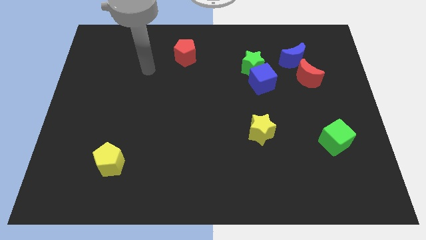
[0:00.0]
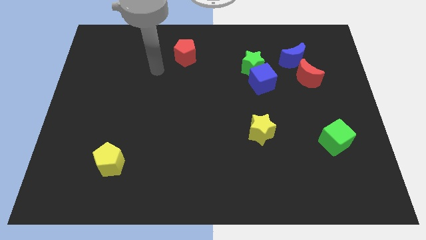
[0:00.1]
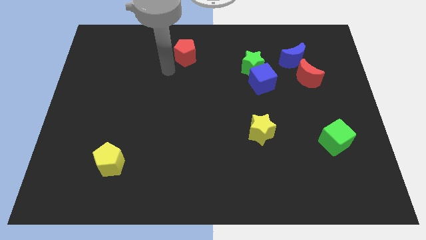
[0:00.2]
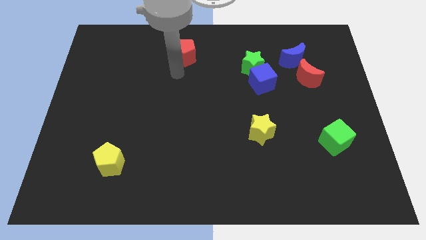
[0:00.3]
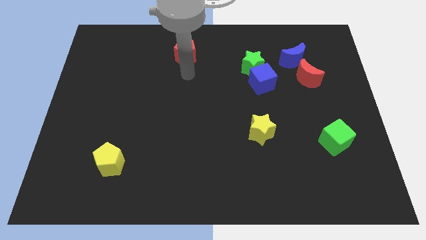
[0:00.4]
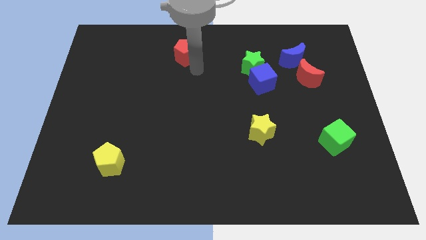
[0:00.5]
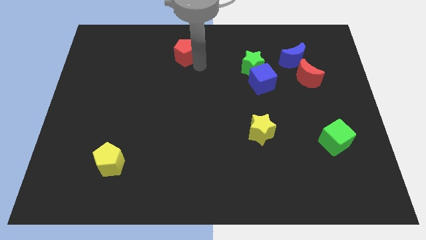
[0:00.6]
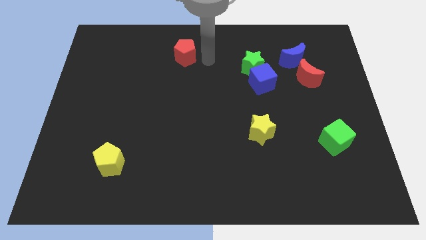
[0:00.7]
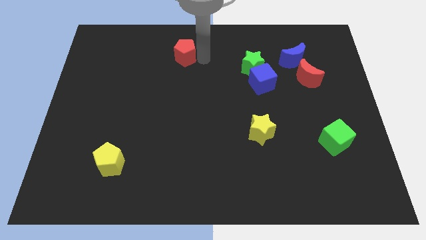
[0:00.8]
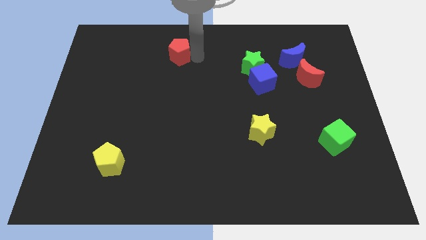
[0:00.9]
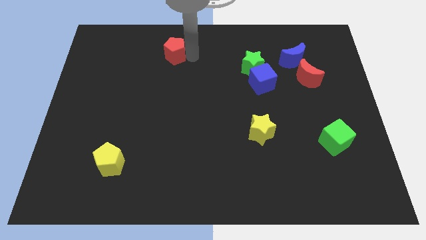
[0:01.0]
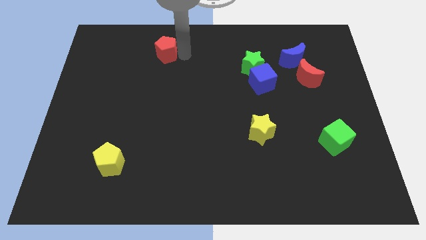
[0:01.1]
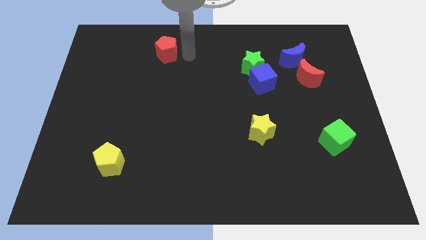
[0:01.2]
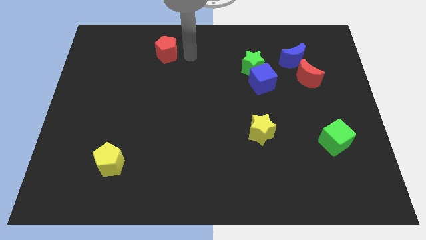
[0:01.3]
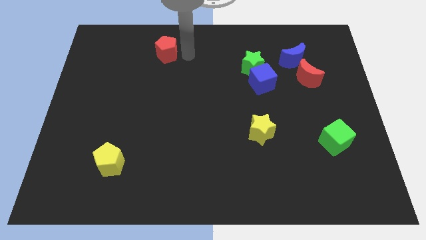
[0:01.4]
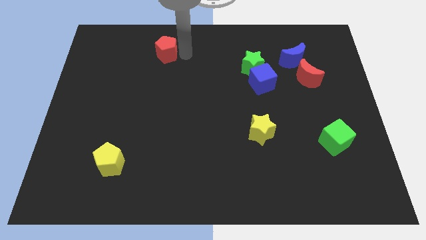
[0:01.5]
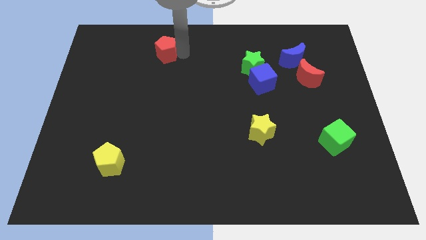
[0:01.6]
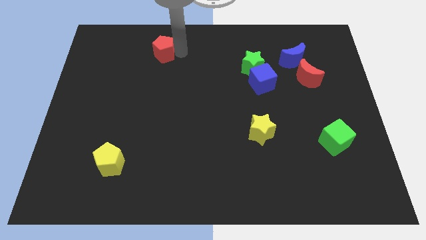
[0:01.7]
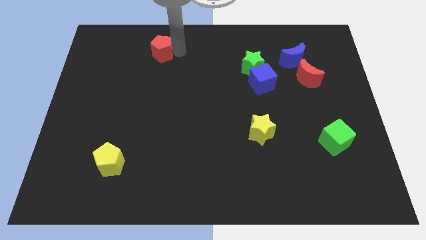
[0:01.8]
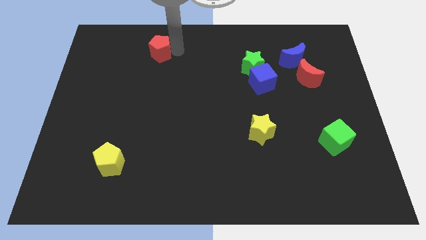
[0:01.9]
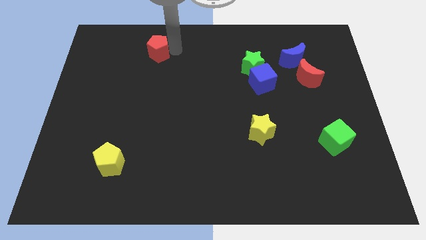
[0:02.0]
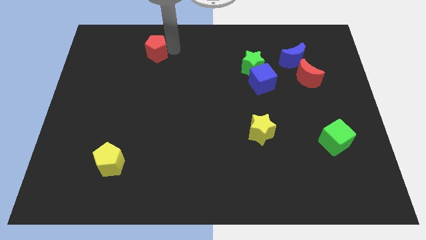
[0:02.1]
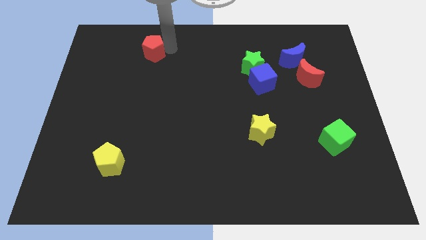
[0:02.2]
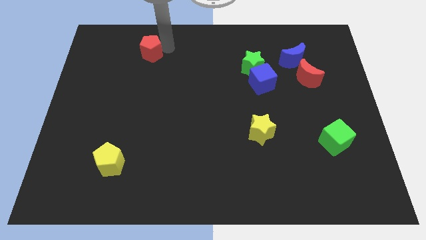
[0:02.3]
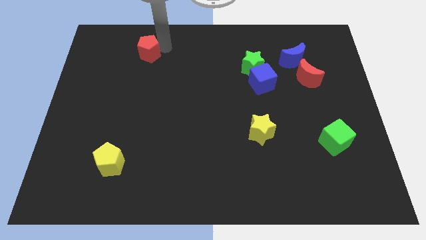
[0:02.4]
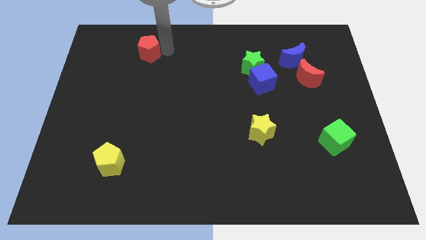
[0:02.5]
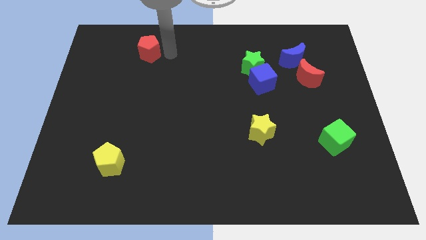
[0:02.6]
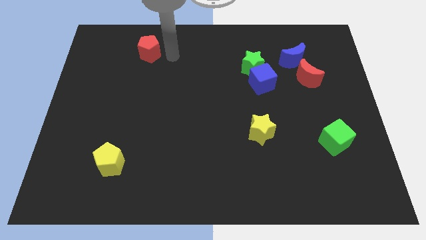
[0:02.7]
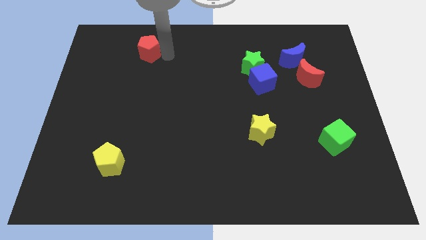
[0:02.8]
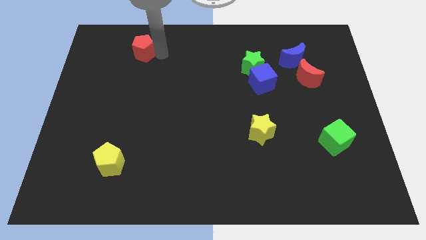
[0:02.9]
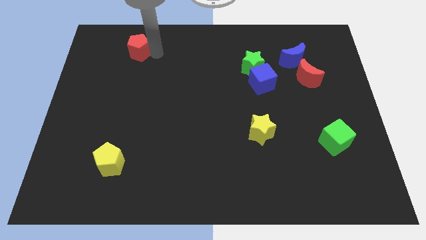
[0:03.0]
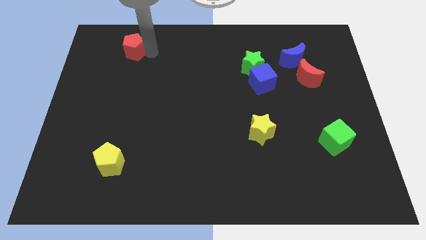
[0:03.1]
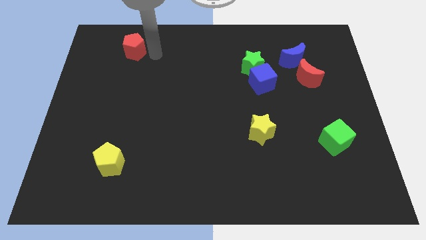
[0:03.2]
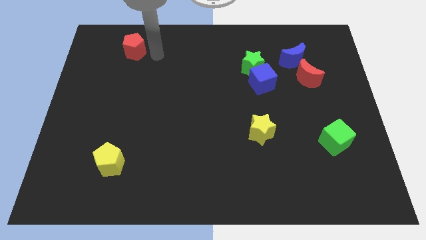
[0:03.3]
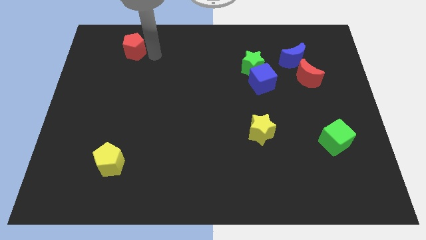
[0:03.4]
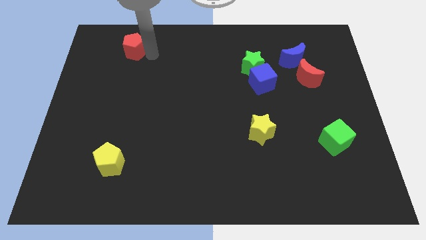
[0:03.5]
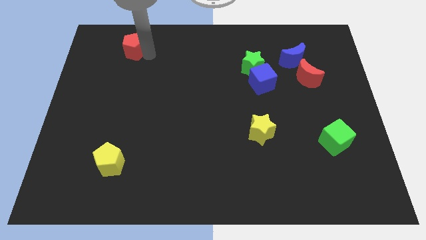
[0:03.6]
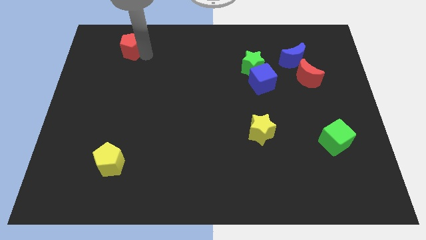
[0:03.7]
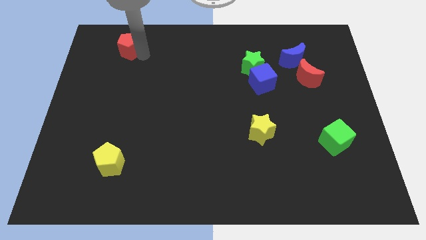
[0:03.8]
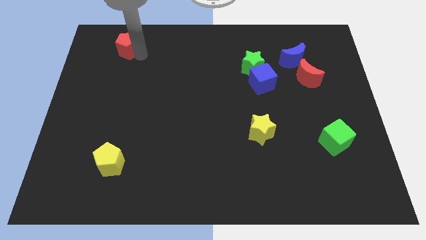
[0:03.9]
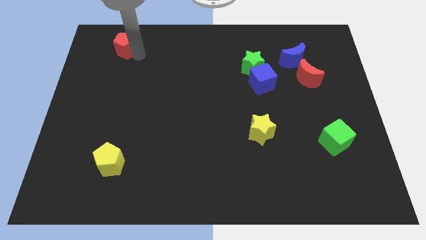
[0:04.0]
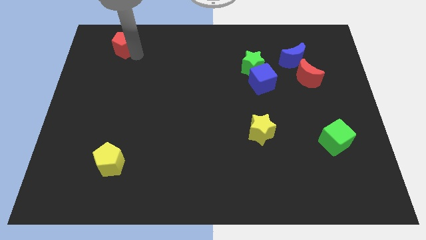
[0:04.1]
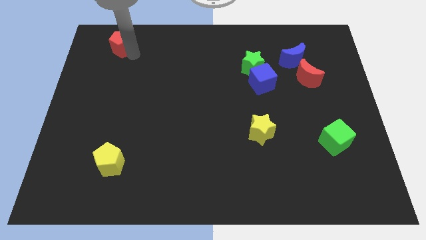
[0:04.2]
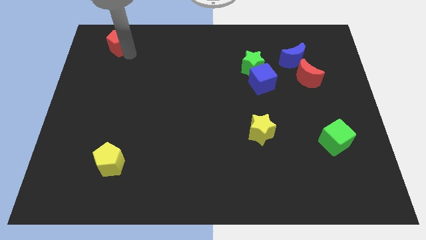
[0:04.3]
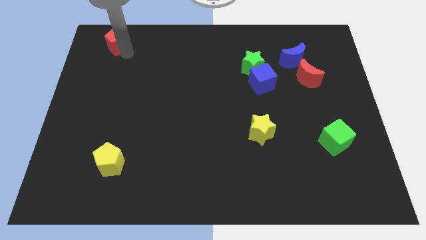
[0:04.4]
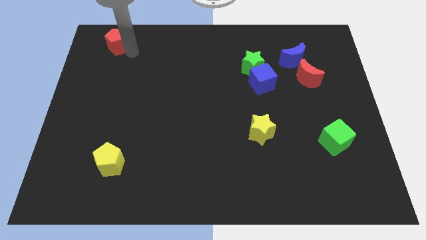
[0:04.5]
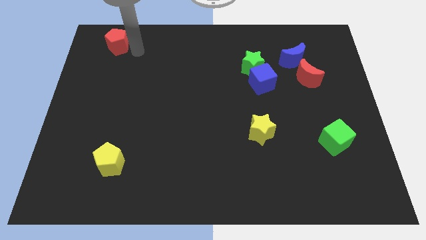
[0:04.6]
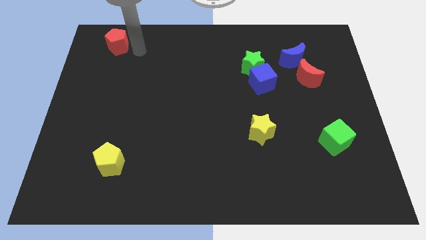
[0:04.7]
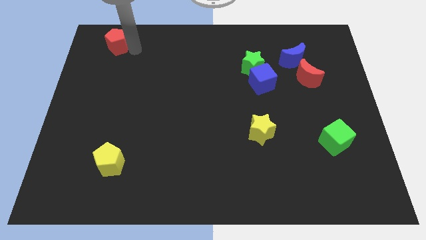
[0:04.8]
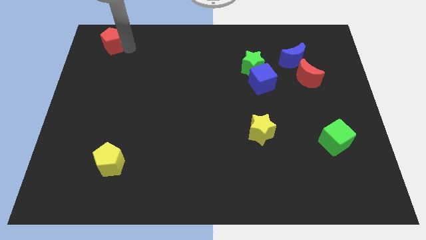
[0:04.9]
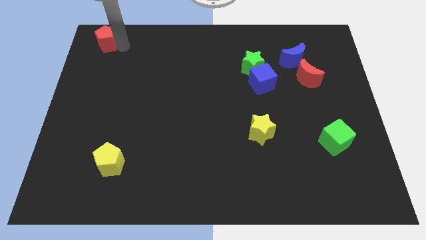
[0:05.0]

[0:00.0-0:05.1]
slide the red pentagon to the top left corner

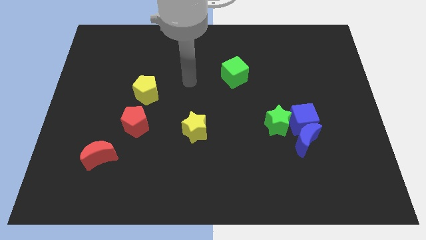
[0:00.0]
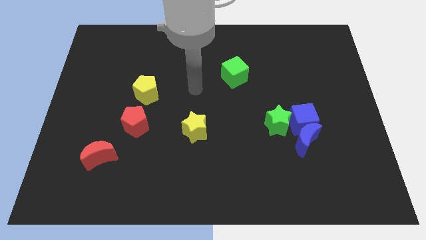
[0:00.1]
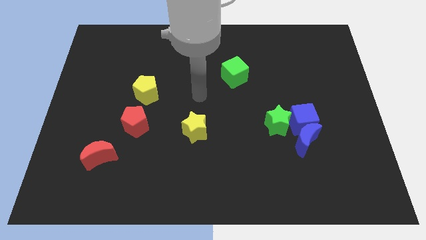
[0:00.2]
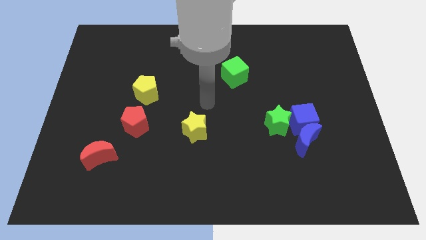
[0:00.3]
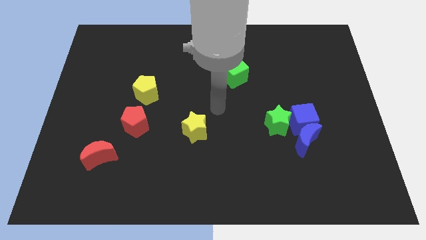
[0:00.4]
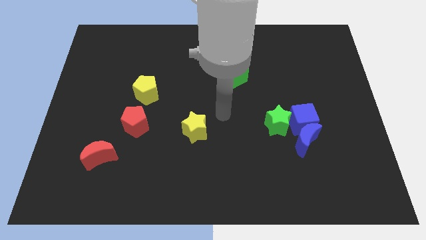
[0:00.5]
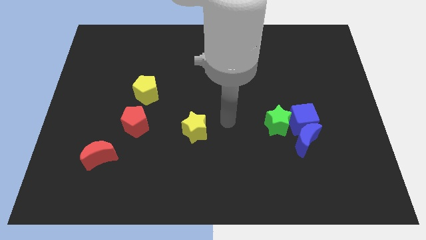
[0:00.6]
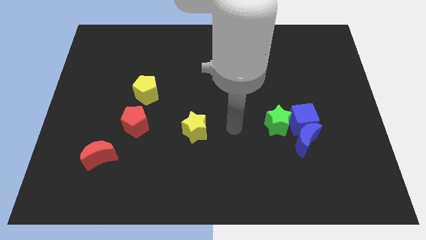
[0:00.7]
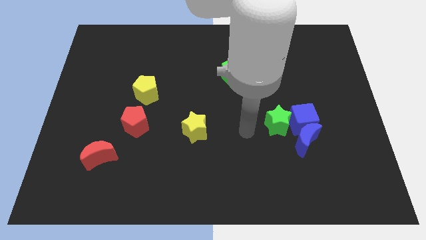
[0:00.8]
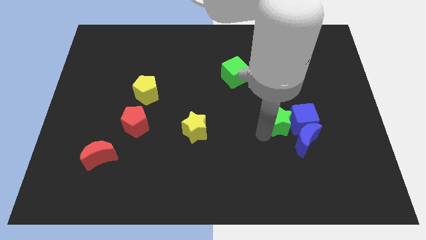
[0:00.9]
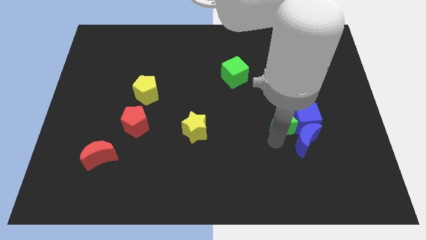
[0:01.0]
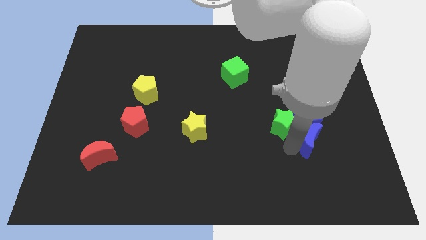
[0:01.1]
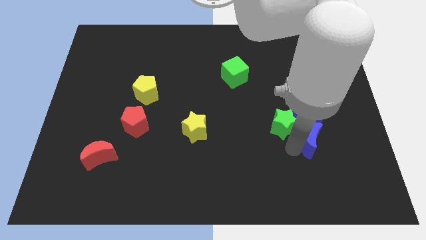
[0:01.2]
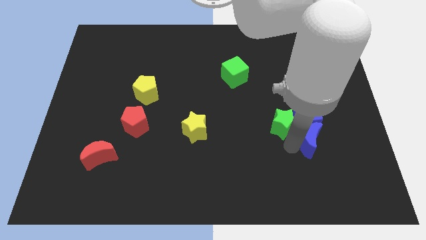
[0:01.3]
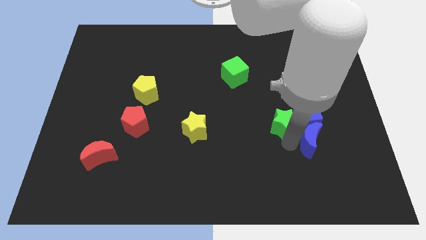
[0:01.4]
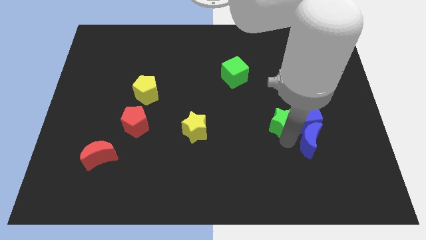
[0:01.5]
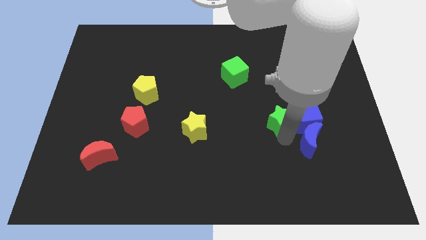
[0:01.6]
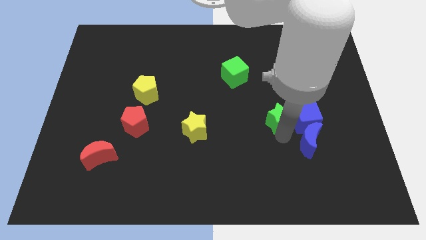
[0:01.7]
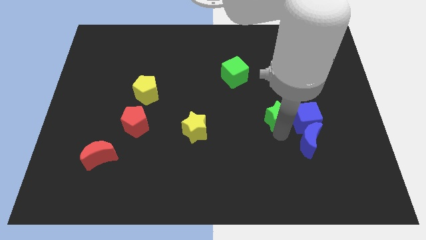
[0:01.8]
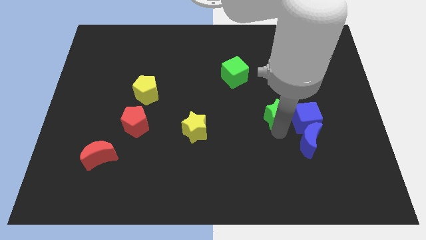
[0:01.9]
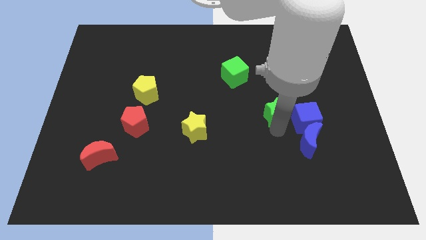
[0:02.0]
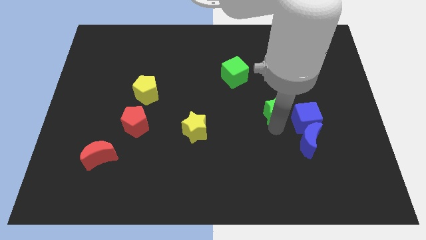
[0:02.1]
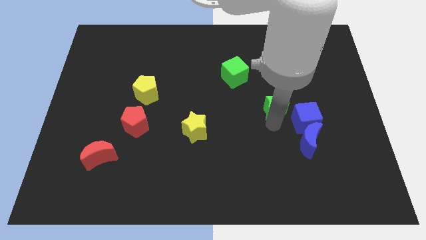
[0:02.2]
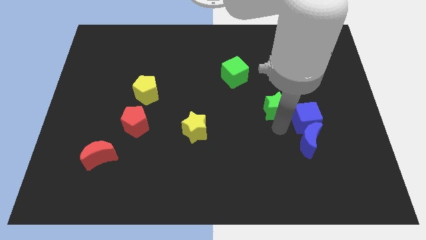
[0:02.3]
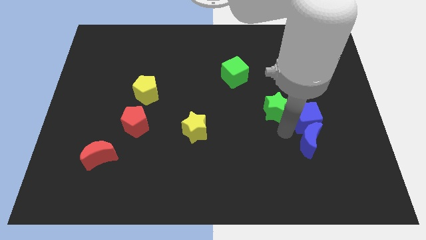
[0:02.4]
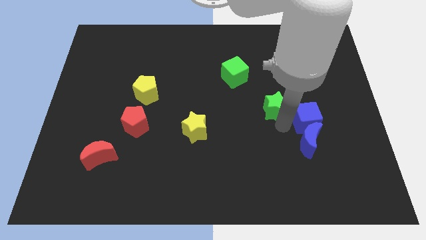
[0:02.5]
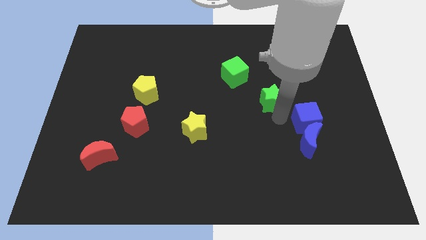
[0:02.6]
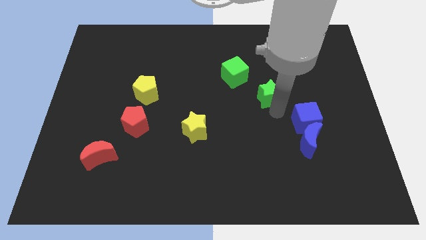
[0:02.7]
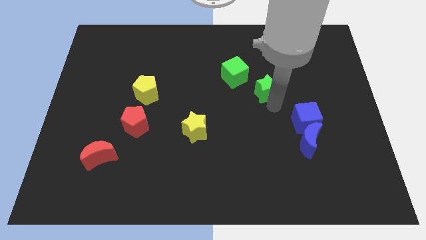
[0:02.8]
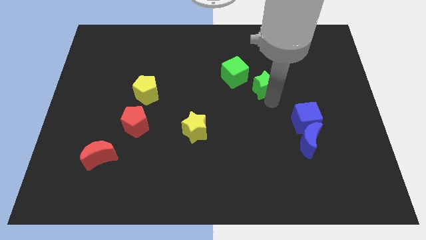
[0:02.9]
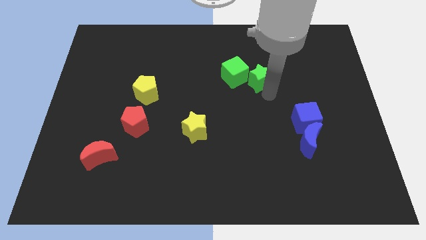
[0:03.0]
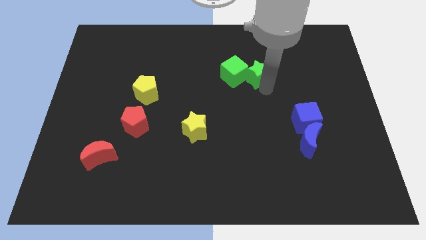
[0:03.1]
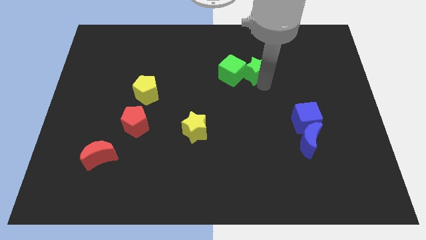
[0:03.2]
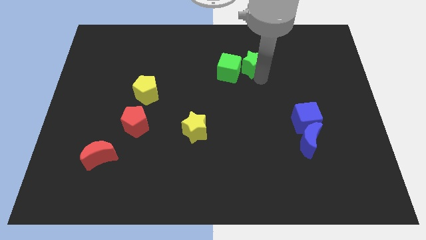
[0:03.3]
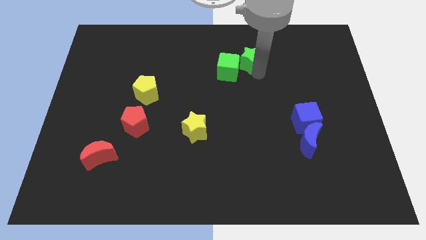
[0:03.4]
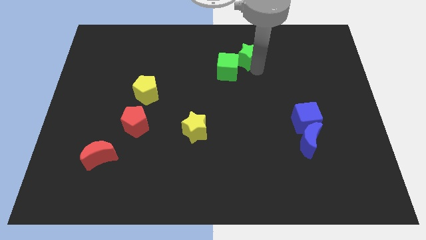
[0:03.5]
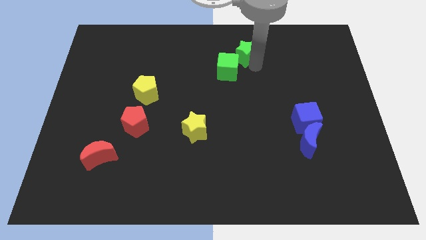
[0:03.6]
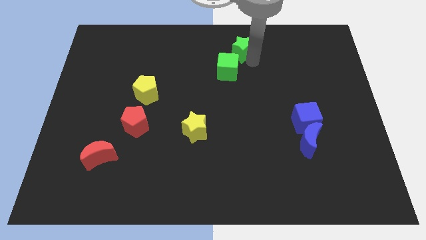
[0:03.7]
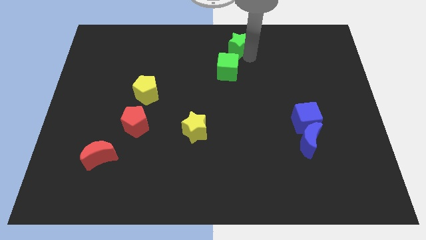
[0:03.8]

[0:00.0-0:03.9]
push the green star to the top
